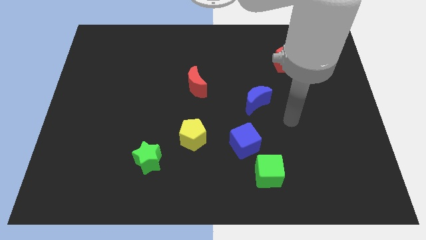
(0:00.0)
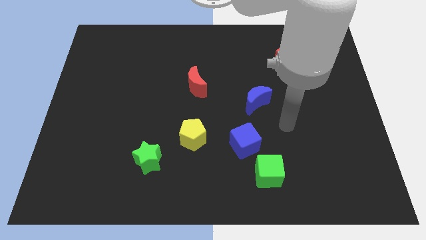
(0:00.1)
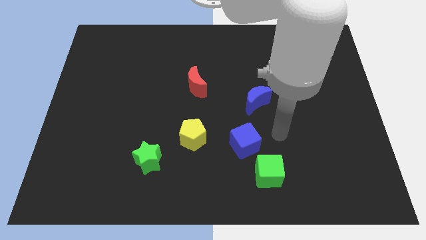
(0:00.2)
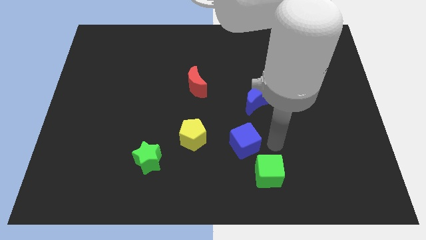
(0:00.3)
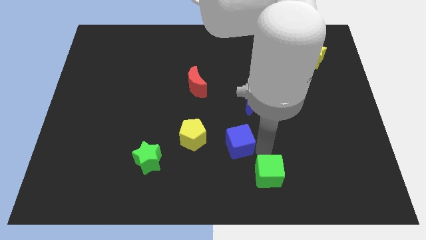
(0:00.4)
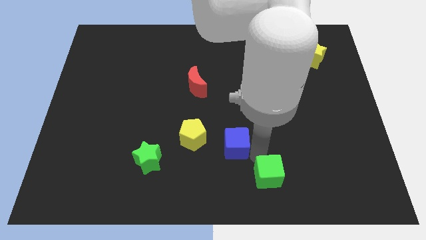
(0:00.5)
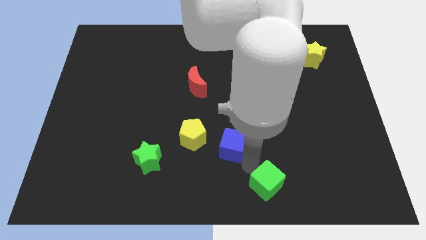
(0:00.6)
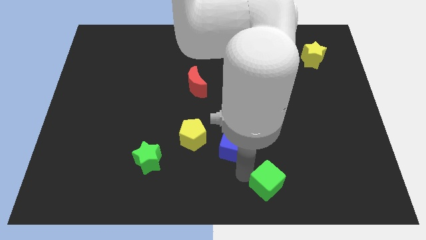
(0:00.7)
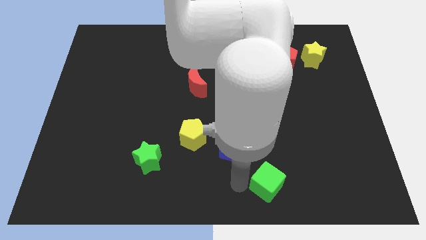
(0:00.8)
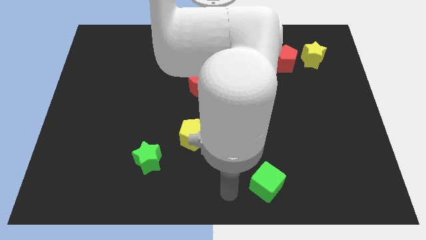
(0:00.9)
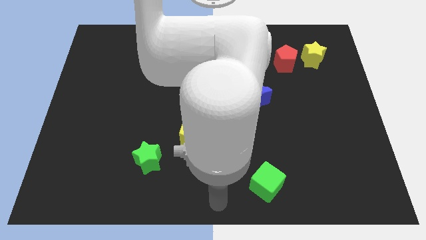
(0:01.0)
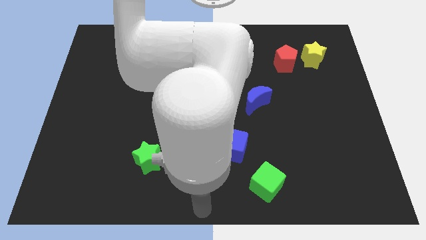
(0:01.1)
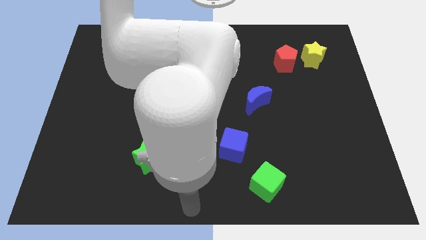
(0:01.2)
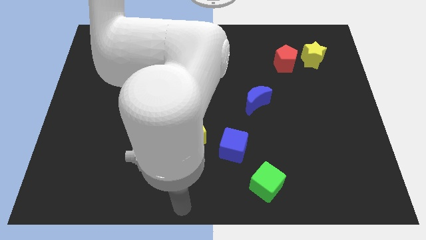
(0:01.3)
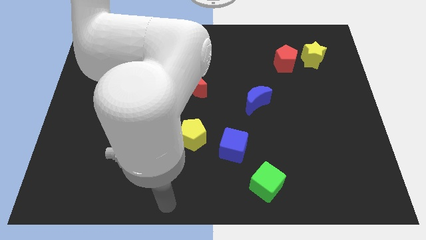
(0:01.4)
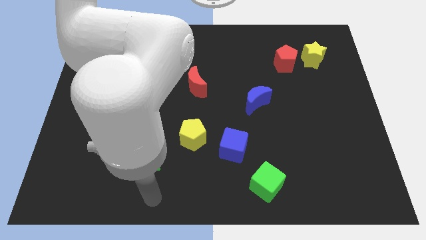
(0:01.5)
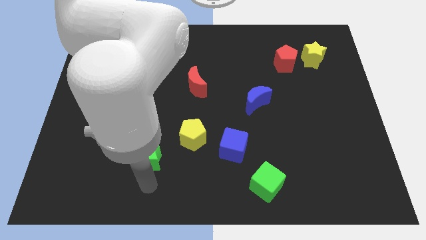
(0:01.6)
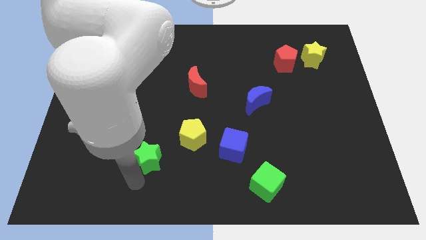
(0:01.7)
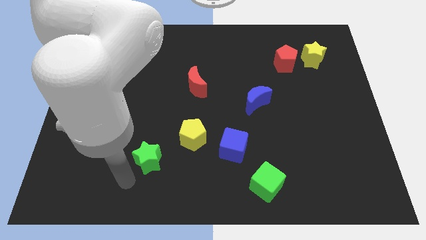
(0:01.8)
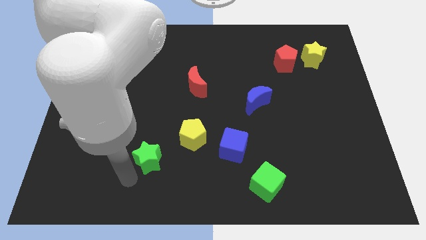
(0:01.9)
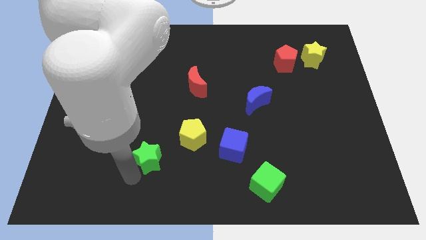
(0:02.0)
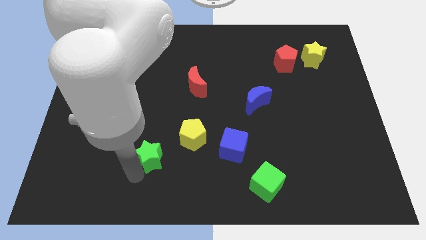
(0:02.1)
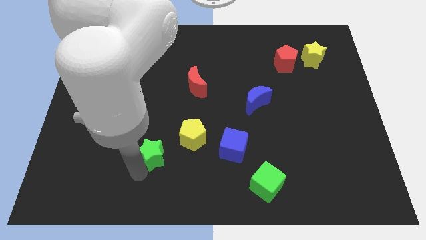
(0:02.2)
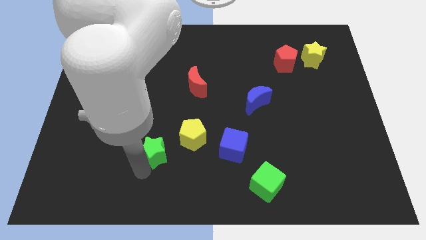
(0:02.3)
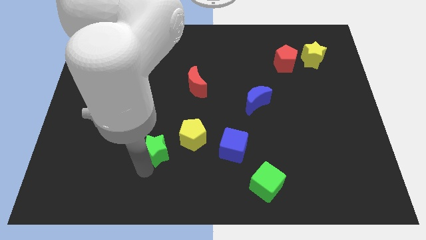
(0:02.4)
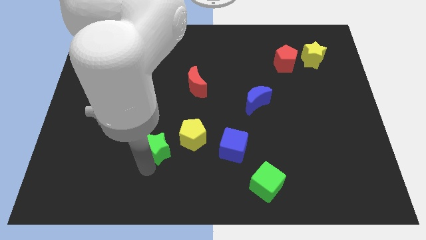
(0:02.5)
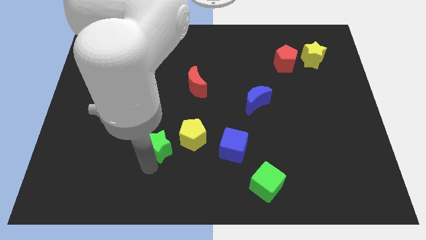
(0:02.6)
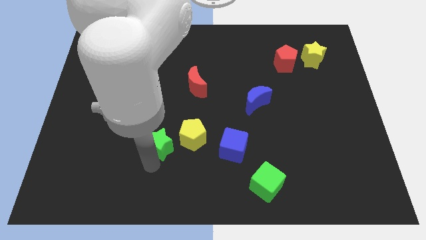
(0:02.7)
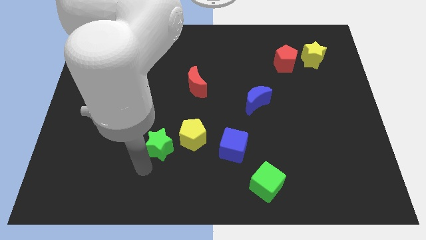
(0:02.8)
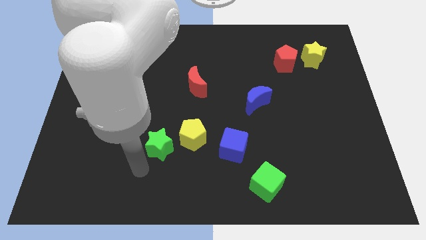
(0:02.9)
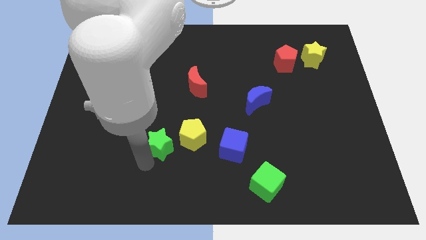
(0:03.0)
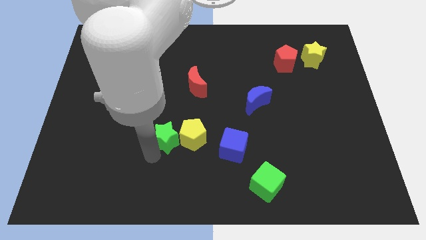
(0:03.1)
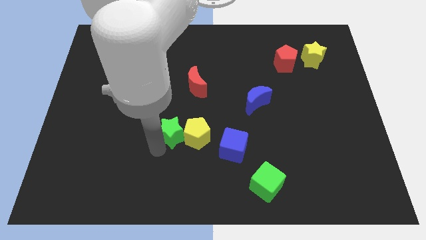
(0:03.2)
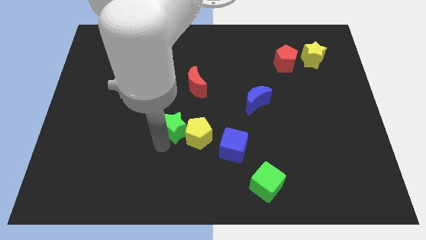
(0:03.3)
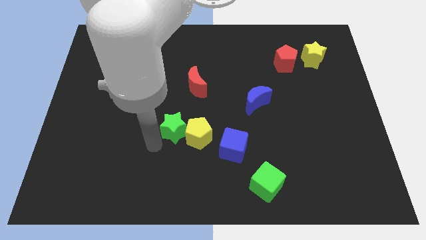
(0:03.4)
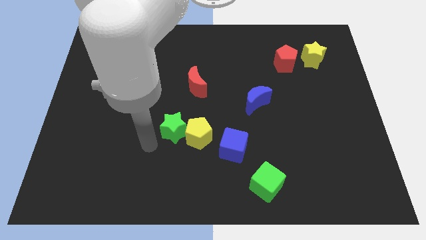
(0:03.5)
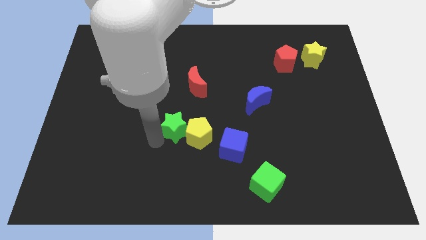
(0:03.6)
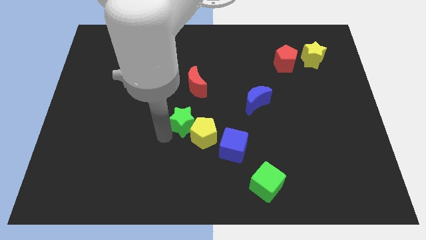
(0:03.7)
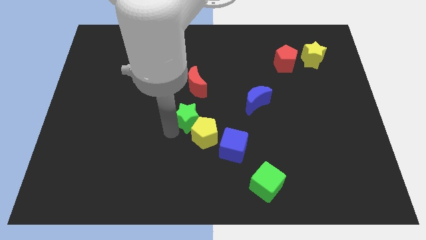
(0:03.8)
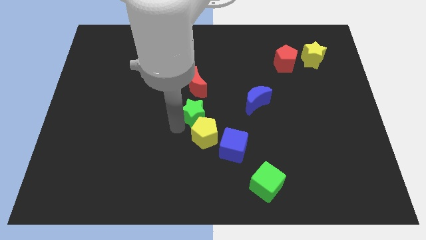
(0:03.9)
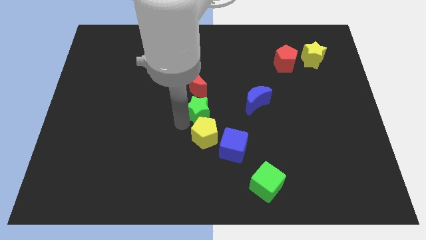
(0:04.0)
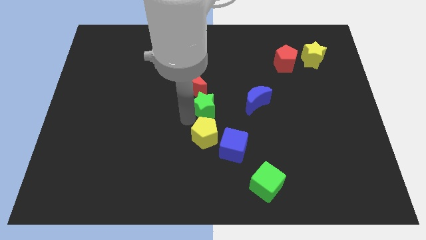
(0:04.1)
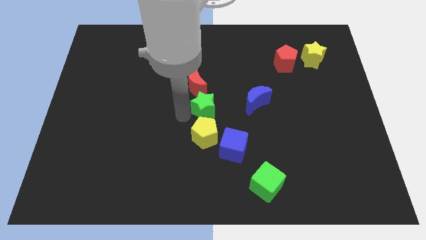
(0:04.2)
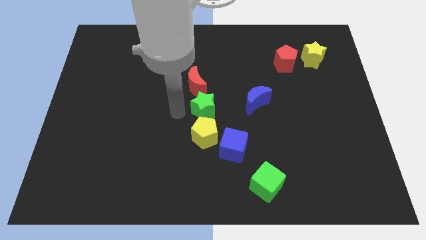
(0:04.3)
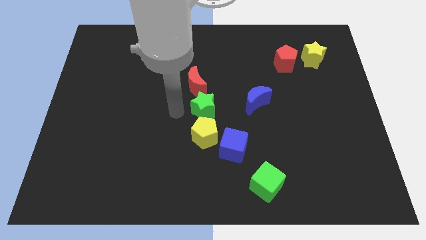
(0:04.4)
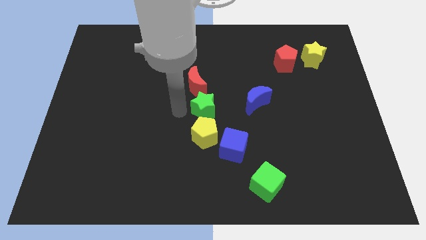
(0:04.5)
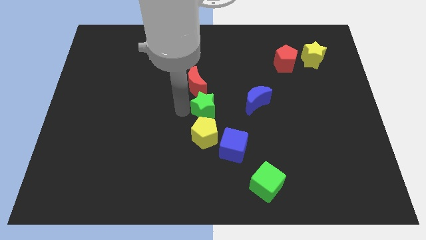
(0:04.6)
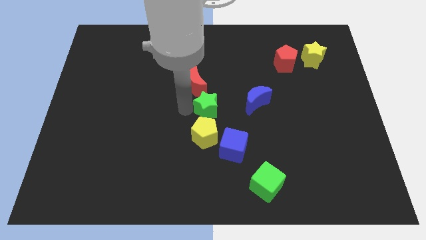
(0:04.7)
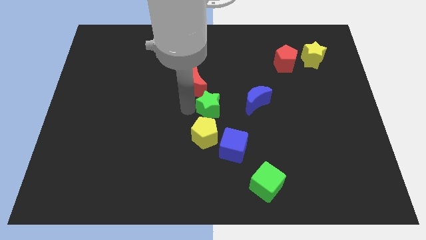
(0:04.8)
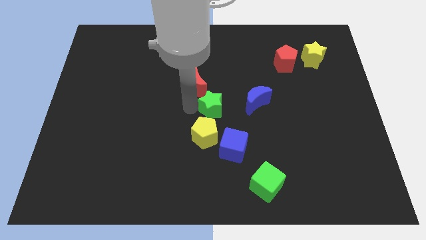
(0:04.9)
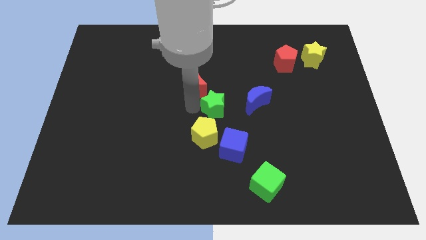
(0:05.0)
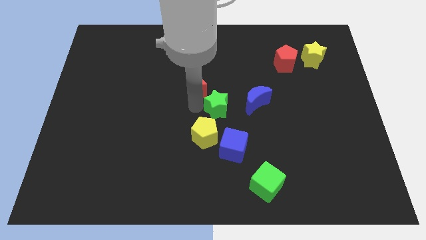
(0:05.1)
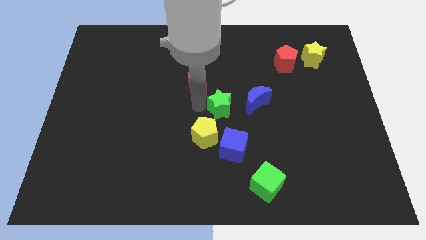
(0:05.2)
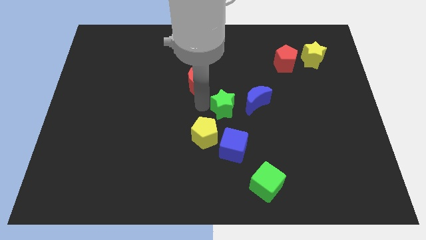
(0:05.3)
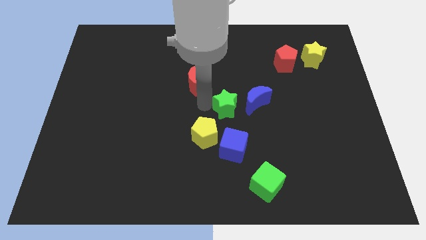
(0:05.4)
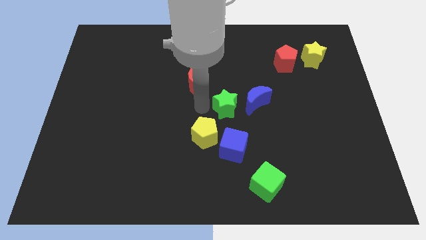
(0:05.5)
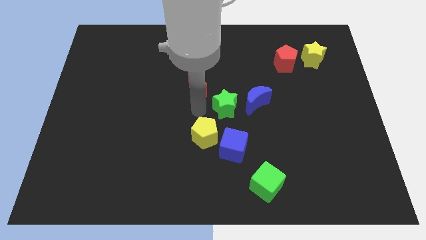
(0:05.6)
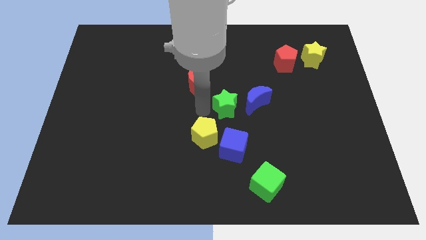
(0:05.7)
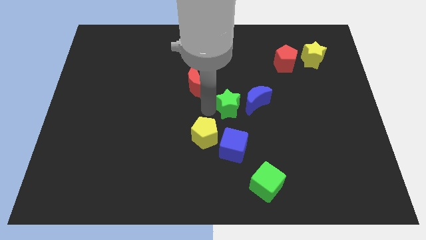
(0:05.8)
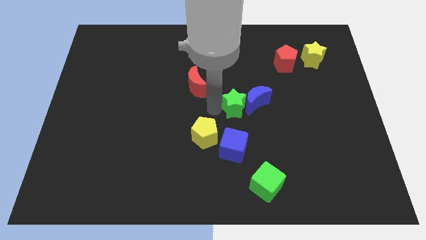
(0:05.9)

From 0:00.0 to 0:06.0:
push the green star close to the blue moon

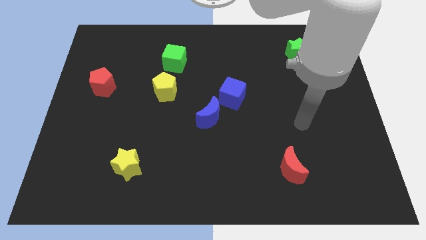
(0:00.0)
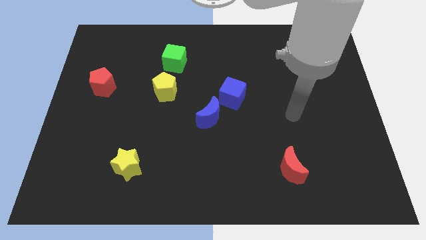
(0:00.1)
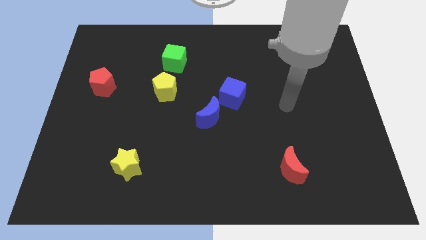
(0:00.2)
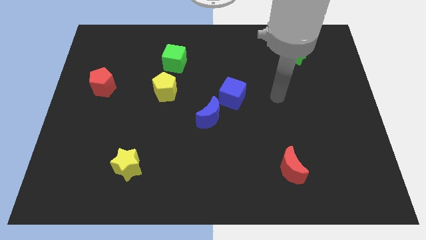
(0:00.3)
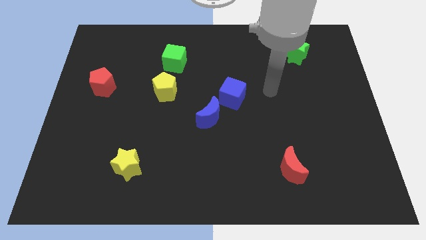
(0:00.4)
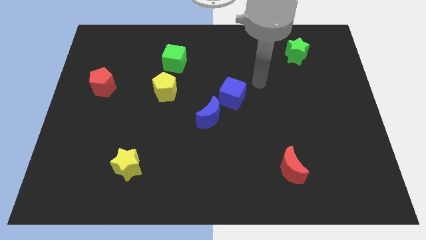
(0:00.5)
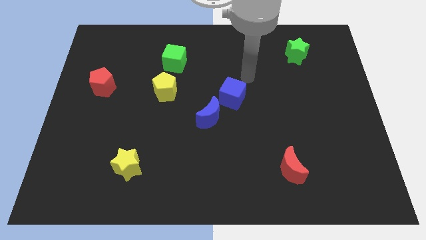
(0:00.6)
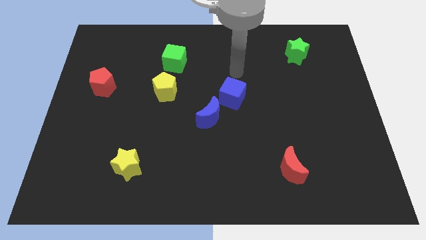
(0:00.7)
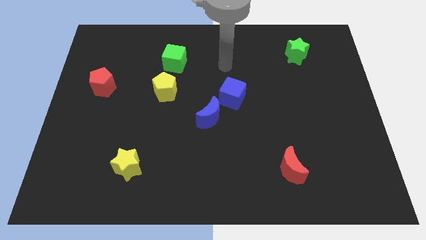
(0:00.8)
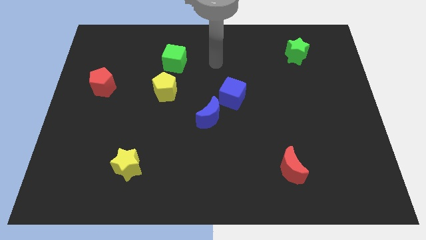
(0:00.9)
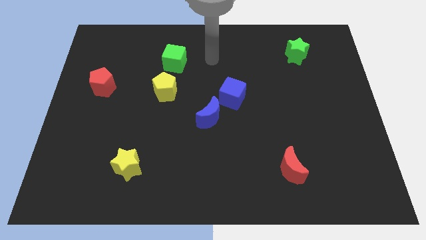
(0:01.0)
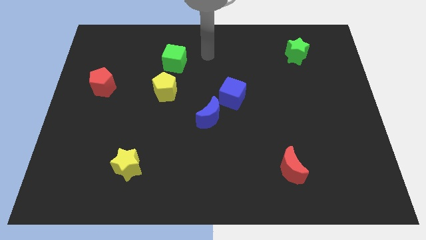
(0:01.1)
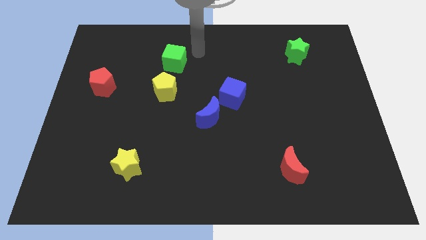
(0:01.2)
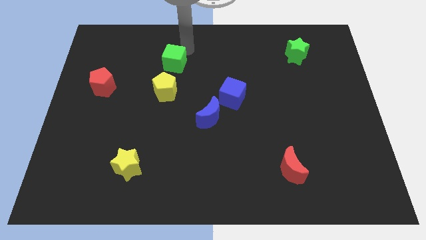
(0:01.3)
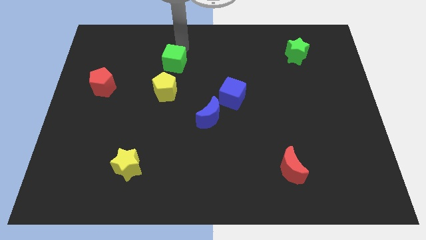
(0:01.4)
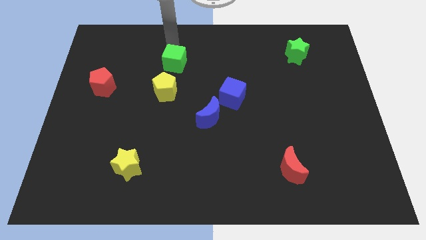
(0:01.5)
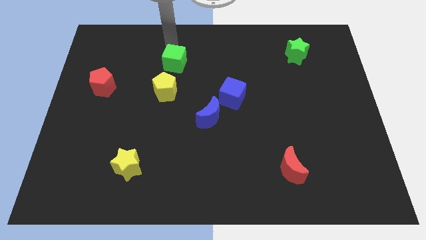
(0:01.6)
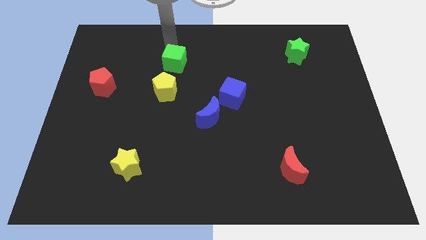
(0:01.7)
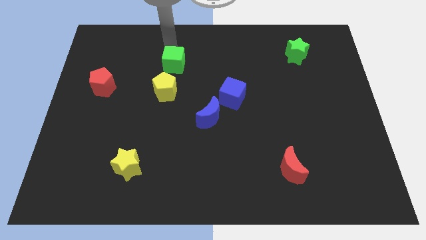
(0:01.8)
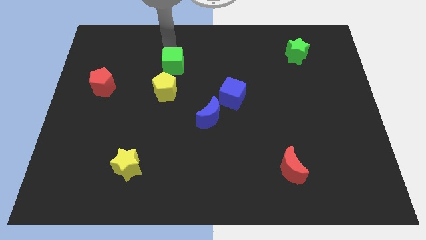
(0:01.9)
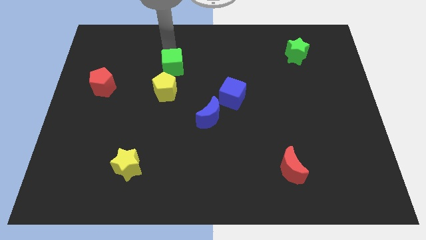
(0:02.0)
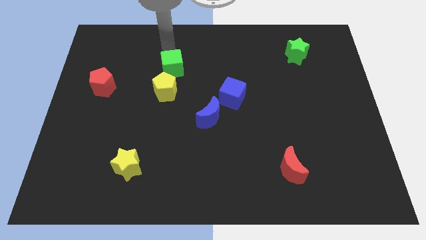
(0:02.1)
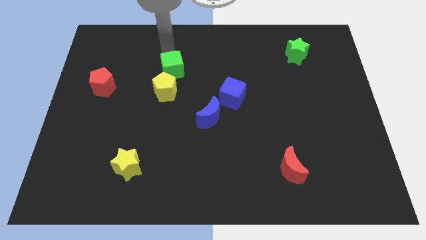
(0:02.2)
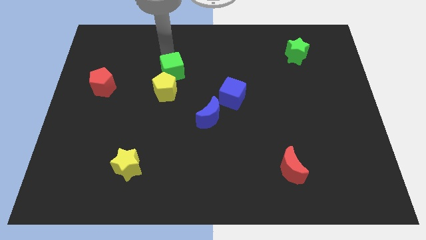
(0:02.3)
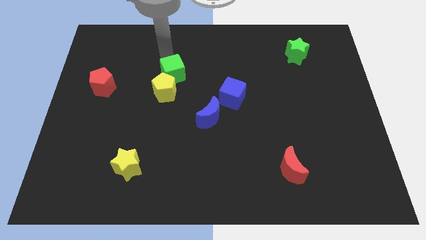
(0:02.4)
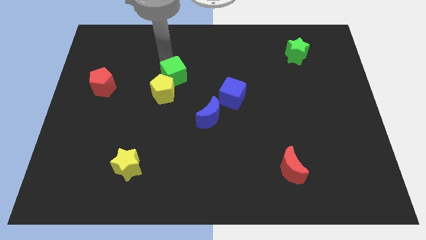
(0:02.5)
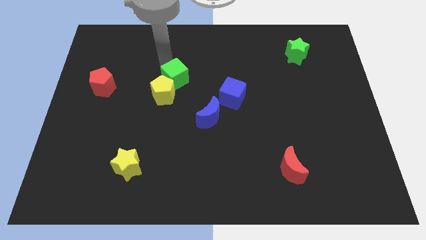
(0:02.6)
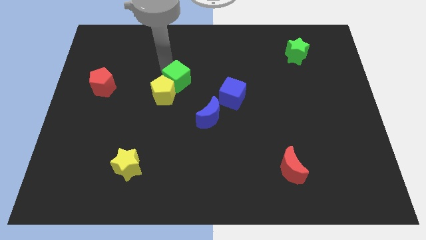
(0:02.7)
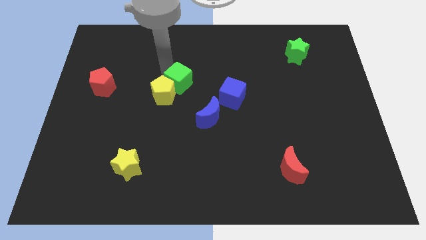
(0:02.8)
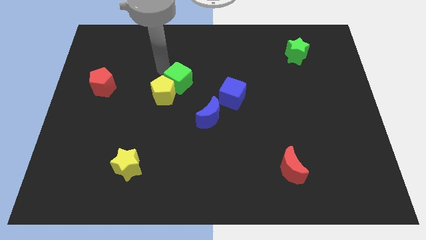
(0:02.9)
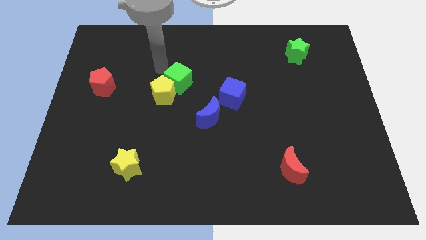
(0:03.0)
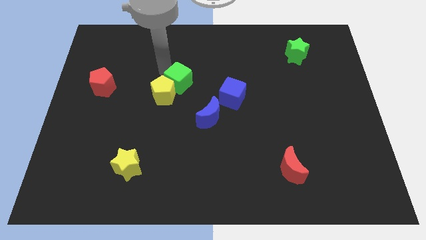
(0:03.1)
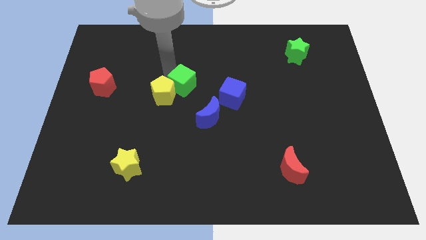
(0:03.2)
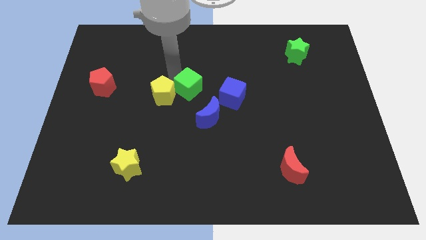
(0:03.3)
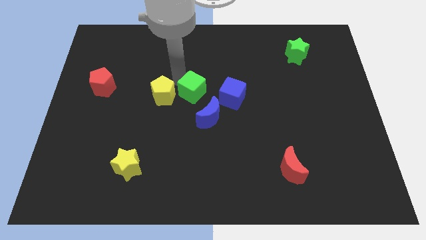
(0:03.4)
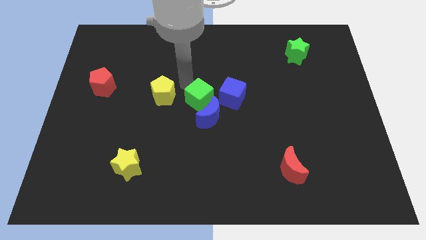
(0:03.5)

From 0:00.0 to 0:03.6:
put the green cube close to the blue moon
